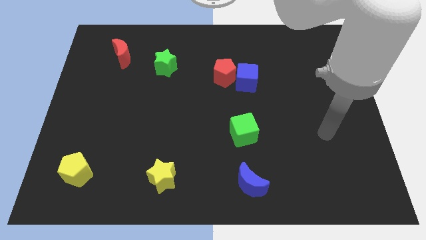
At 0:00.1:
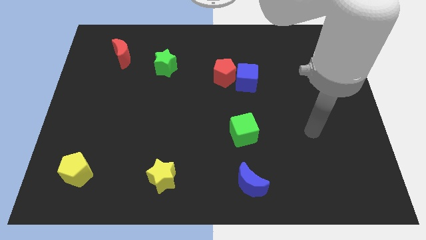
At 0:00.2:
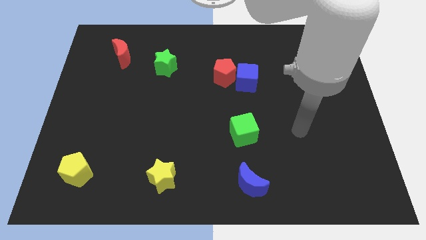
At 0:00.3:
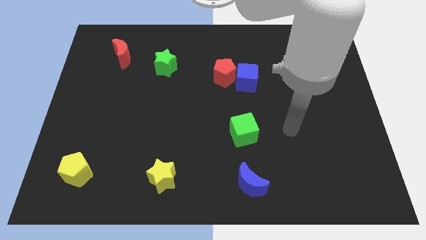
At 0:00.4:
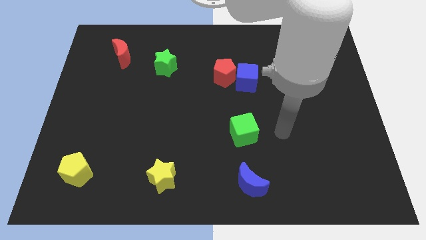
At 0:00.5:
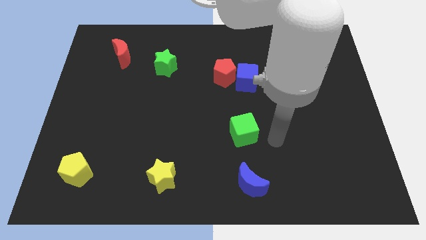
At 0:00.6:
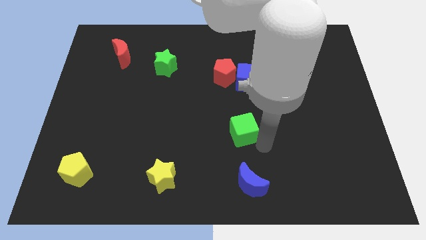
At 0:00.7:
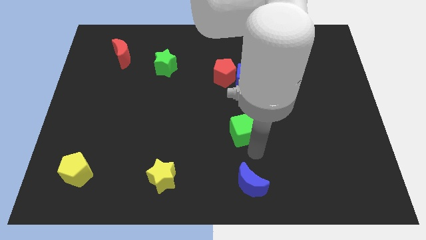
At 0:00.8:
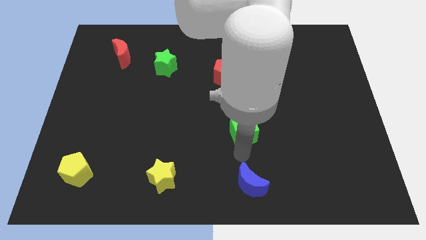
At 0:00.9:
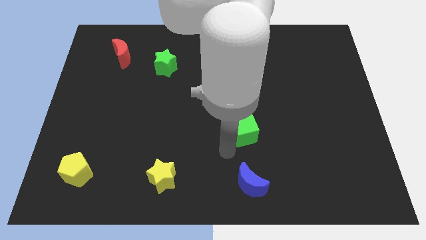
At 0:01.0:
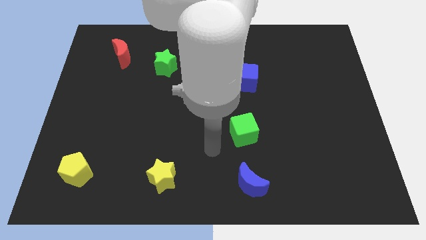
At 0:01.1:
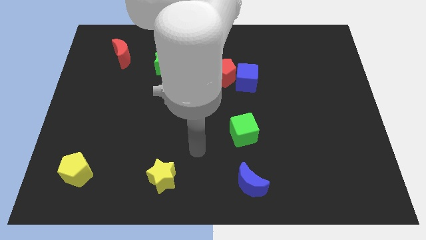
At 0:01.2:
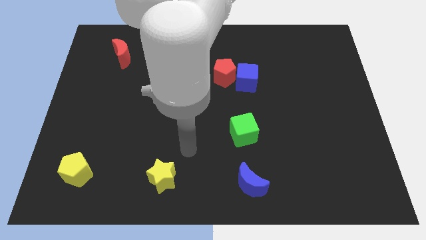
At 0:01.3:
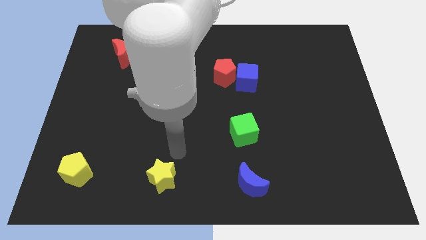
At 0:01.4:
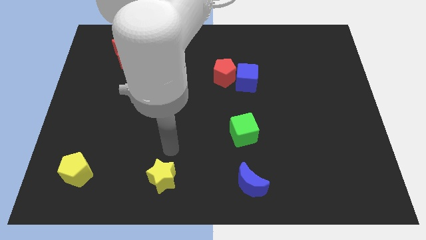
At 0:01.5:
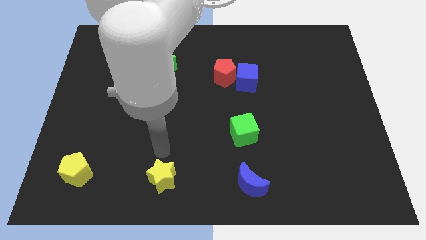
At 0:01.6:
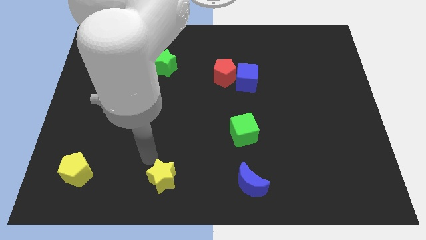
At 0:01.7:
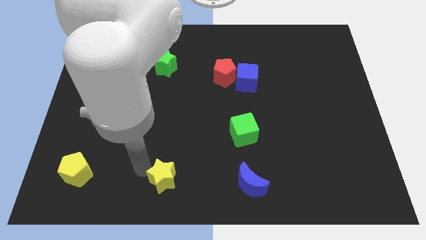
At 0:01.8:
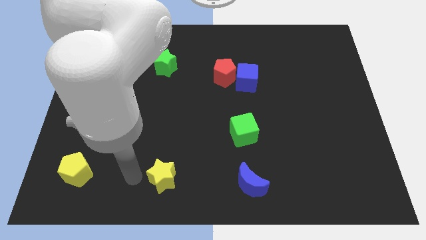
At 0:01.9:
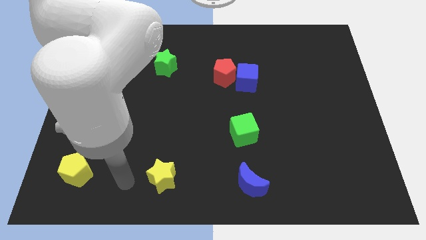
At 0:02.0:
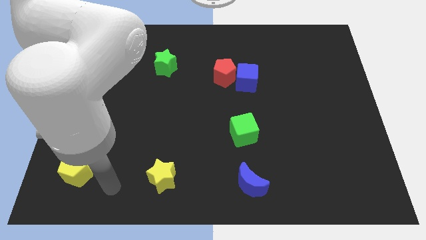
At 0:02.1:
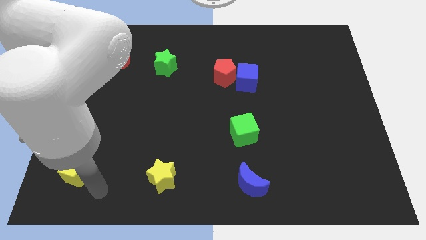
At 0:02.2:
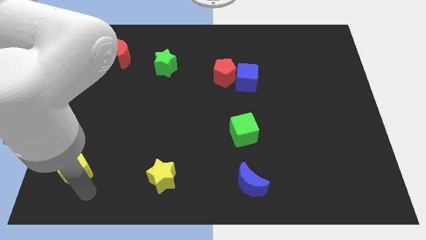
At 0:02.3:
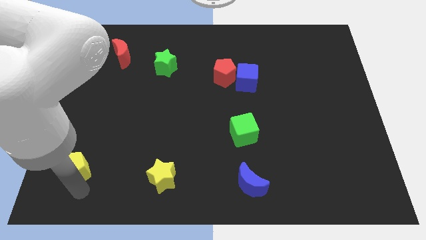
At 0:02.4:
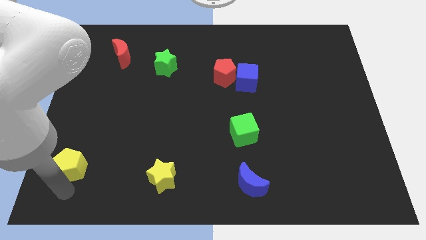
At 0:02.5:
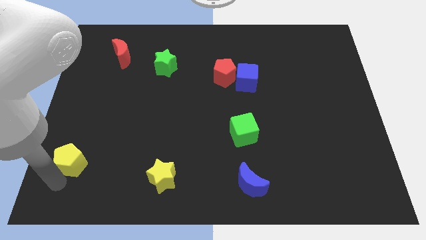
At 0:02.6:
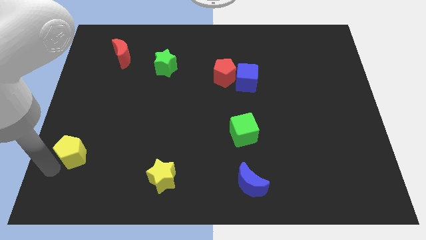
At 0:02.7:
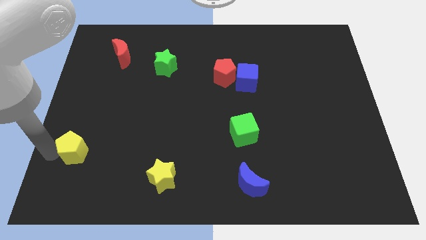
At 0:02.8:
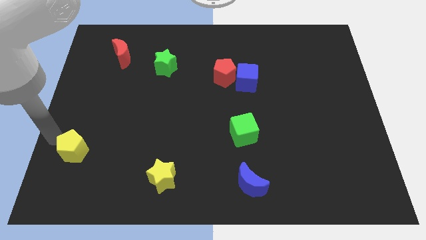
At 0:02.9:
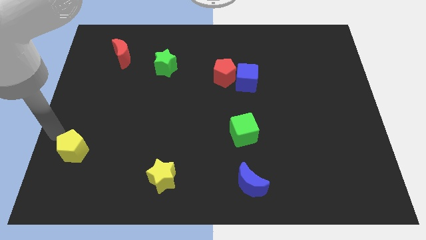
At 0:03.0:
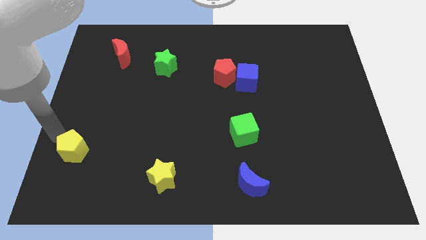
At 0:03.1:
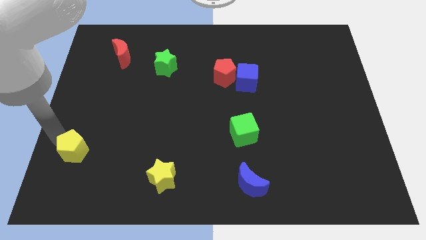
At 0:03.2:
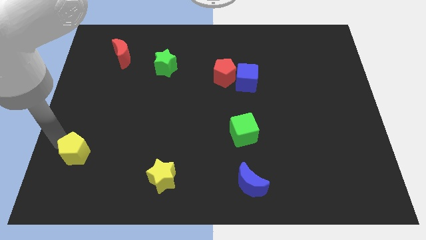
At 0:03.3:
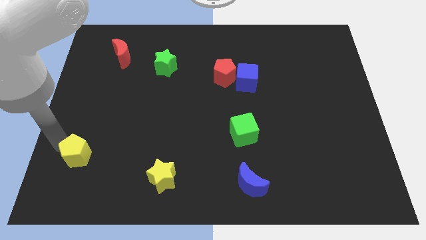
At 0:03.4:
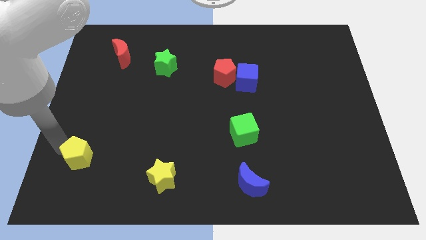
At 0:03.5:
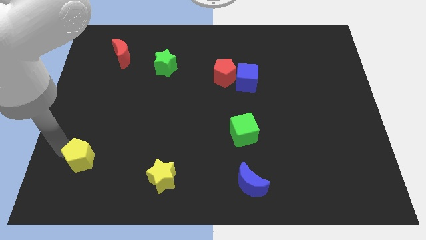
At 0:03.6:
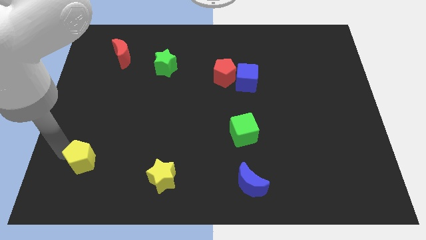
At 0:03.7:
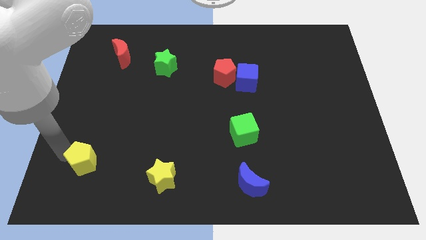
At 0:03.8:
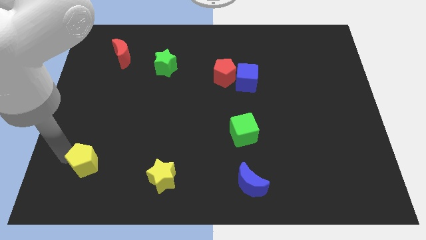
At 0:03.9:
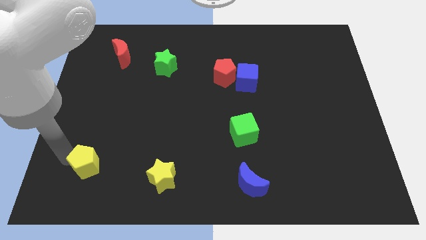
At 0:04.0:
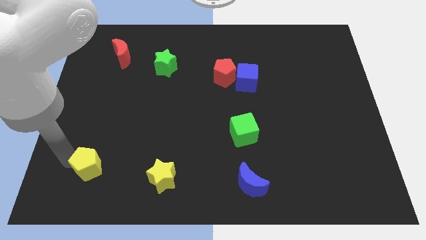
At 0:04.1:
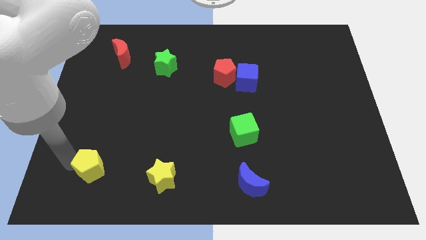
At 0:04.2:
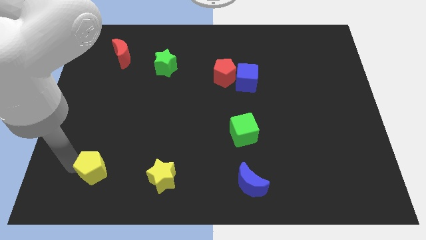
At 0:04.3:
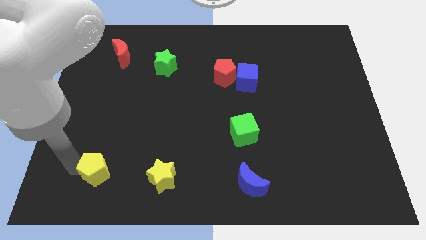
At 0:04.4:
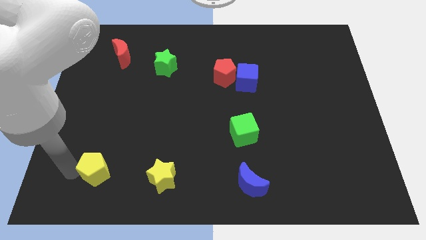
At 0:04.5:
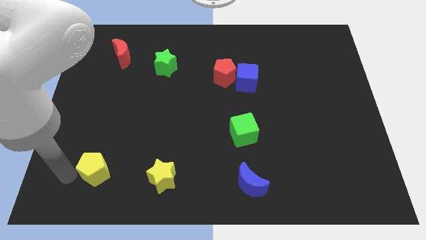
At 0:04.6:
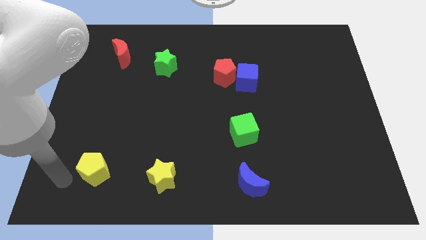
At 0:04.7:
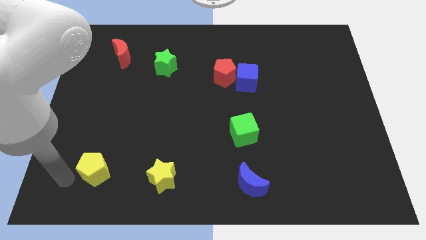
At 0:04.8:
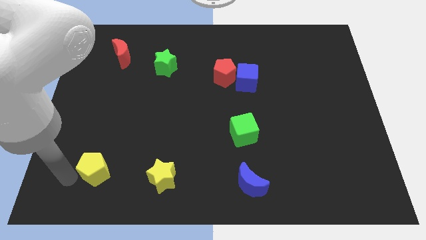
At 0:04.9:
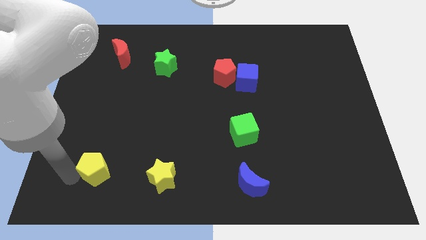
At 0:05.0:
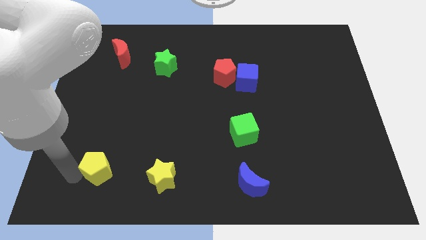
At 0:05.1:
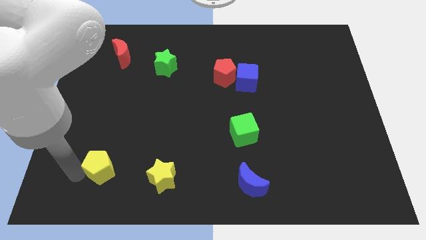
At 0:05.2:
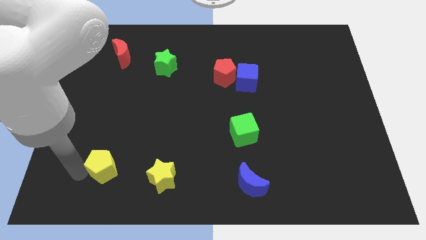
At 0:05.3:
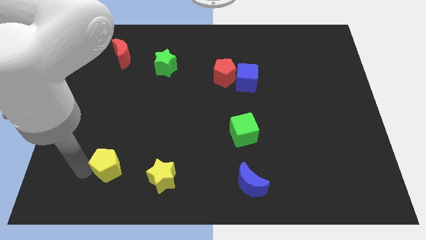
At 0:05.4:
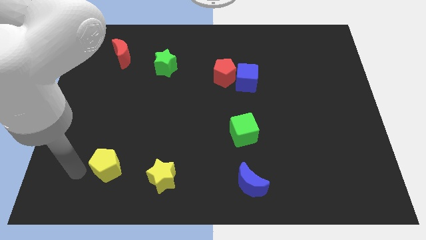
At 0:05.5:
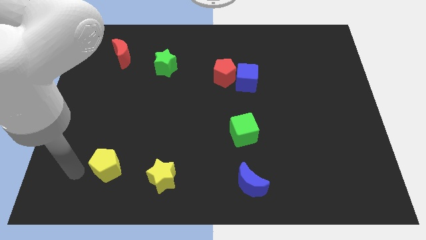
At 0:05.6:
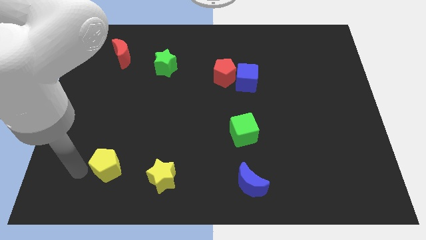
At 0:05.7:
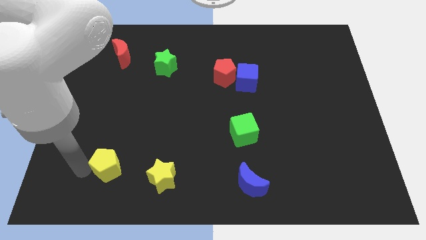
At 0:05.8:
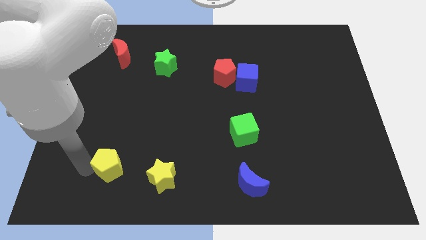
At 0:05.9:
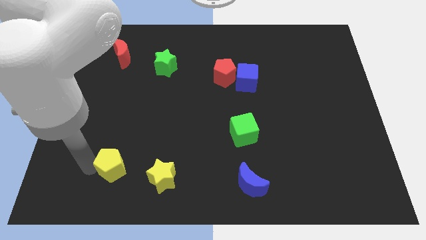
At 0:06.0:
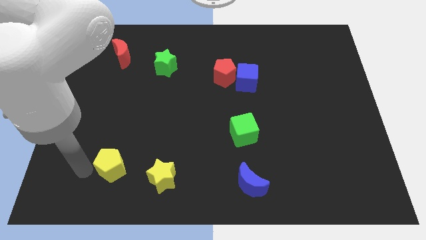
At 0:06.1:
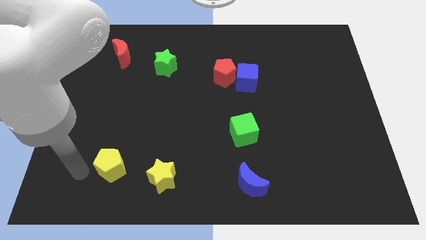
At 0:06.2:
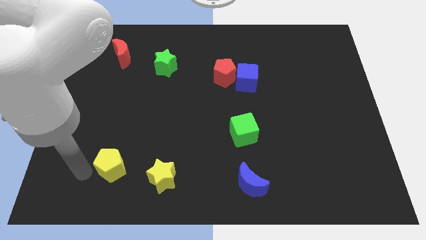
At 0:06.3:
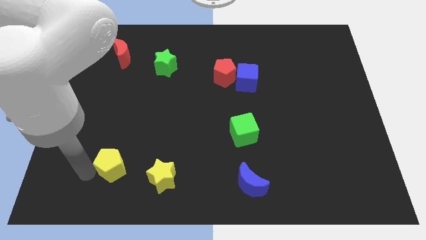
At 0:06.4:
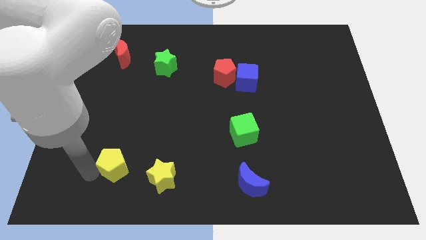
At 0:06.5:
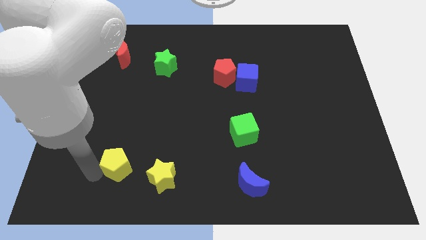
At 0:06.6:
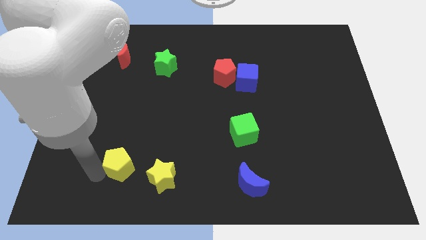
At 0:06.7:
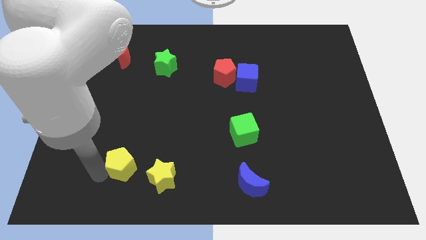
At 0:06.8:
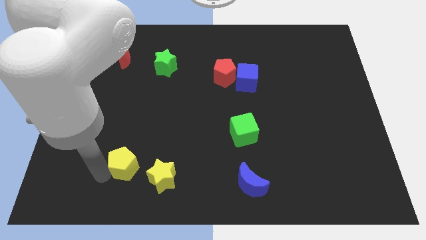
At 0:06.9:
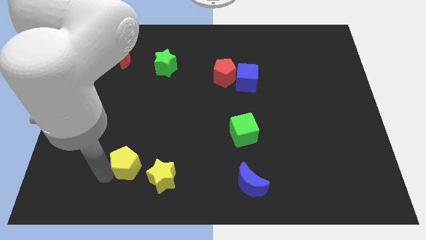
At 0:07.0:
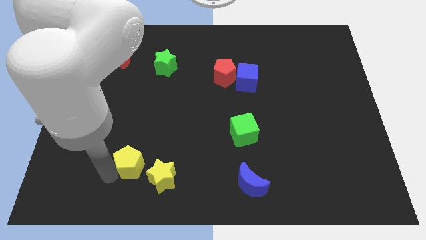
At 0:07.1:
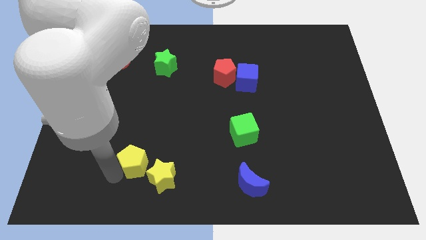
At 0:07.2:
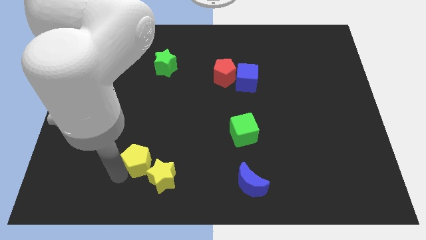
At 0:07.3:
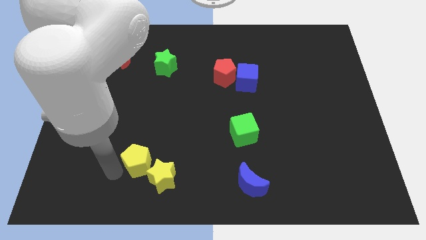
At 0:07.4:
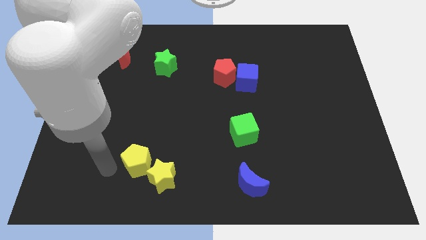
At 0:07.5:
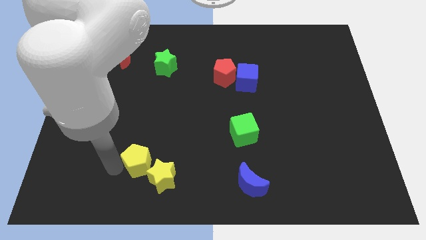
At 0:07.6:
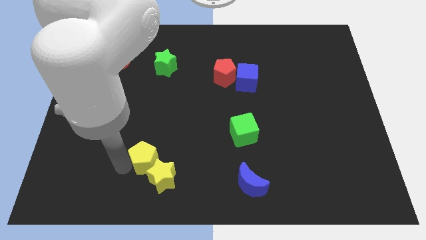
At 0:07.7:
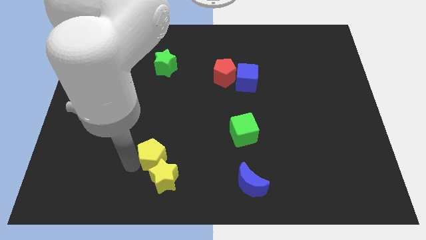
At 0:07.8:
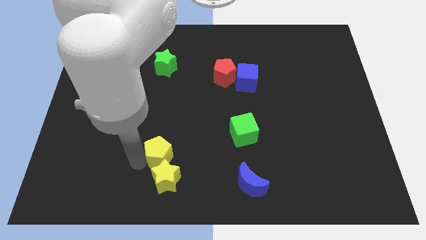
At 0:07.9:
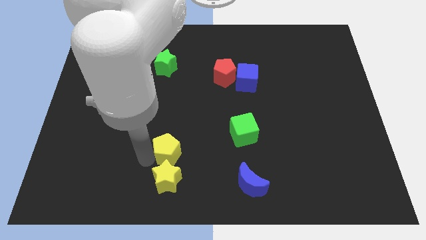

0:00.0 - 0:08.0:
push the yellow pentagon diagonally up and to the right of the yellow star

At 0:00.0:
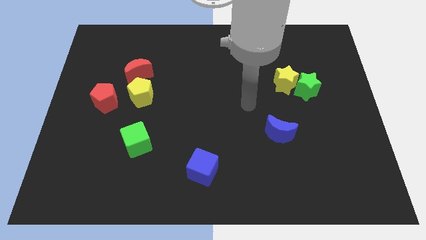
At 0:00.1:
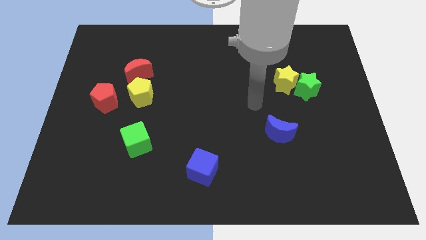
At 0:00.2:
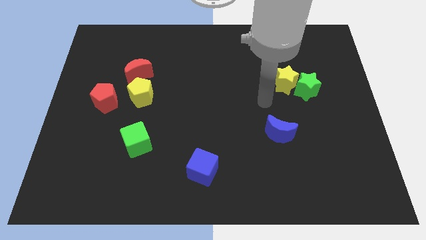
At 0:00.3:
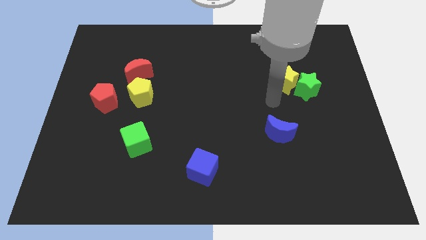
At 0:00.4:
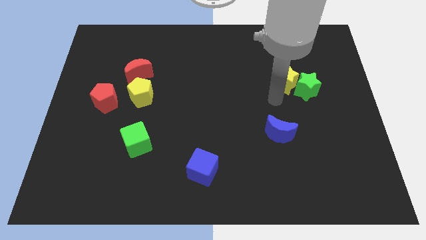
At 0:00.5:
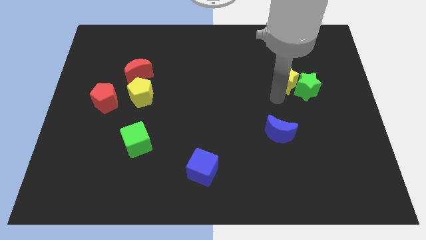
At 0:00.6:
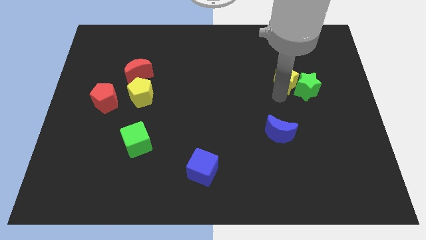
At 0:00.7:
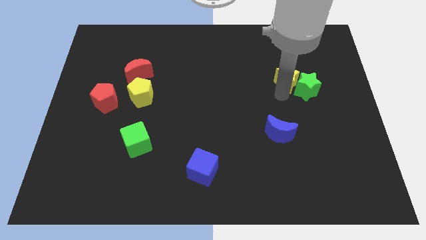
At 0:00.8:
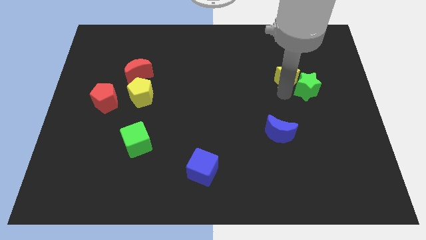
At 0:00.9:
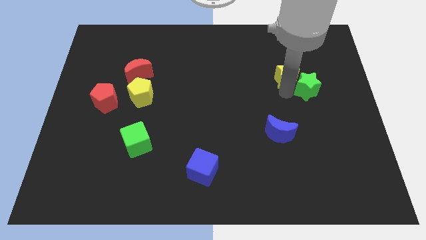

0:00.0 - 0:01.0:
slide the yellow star to the top of the green star
